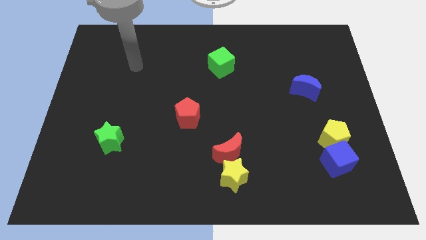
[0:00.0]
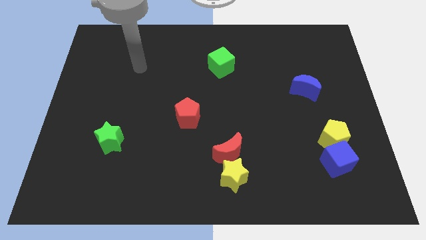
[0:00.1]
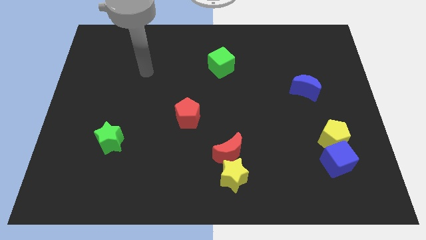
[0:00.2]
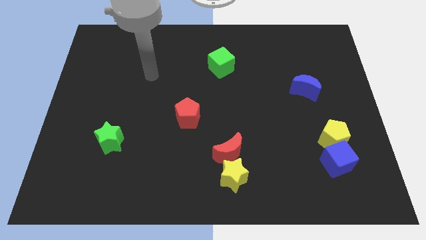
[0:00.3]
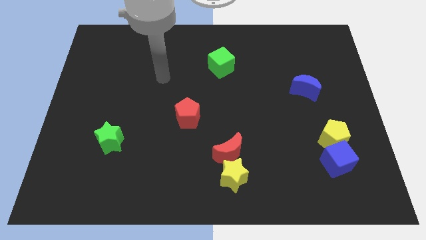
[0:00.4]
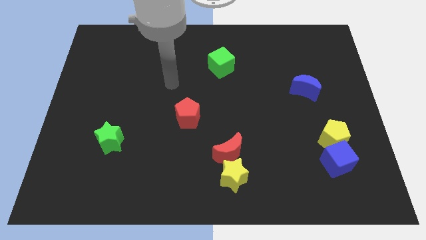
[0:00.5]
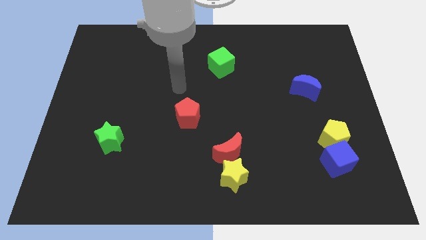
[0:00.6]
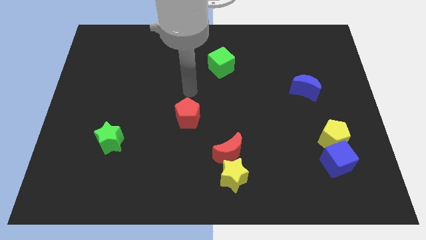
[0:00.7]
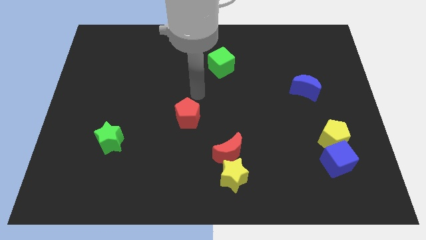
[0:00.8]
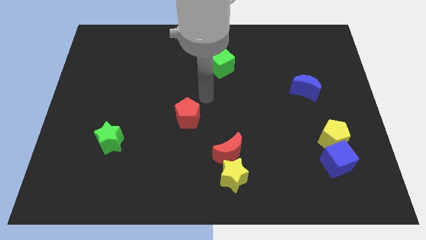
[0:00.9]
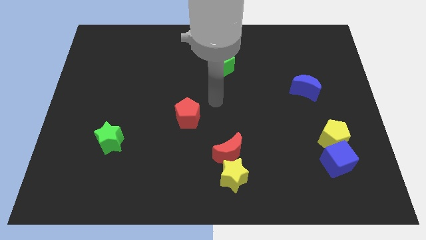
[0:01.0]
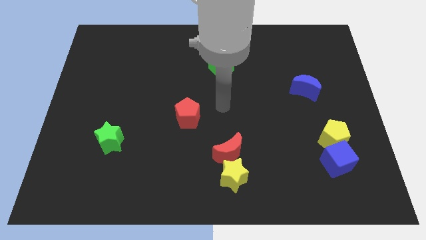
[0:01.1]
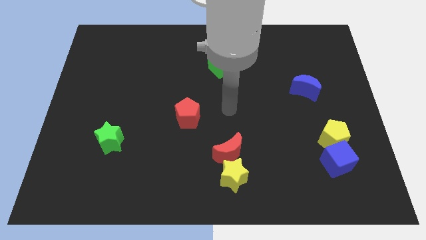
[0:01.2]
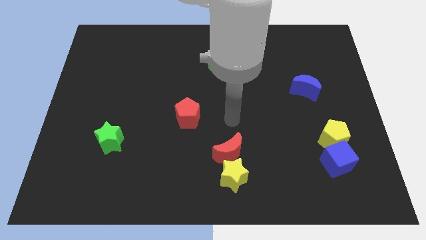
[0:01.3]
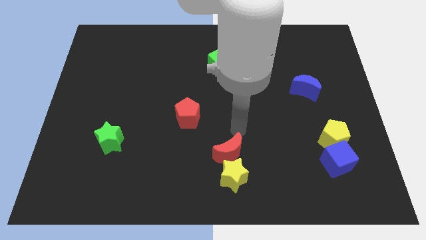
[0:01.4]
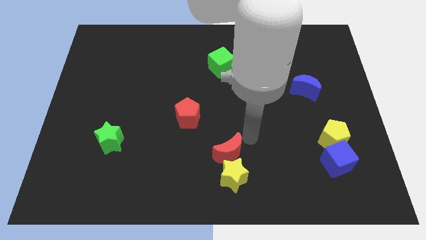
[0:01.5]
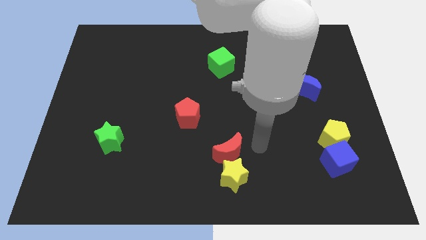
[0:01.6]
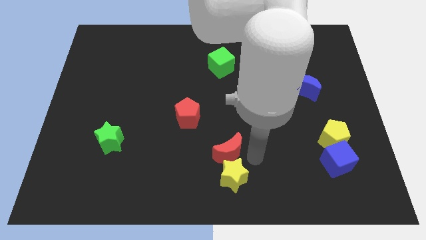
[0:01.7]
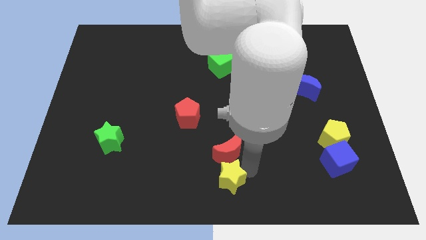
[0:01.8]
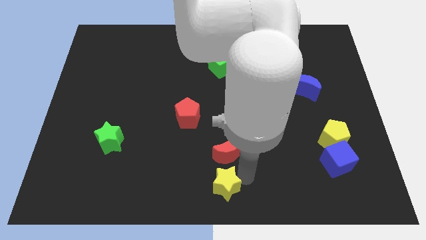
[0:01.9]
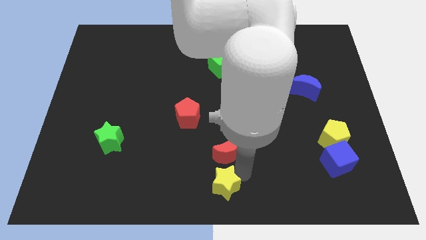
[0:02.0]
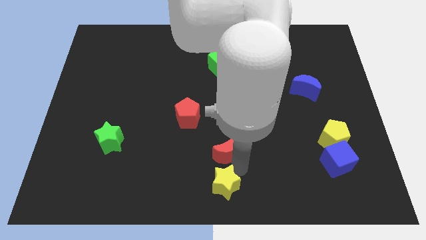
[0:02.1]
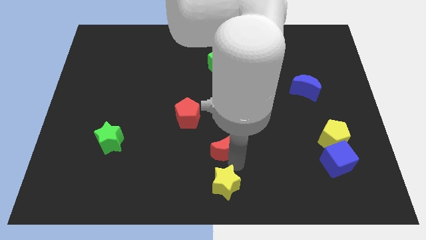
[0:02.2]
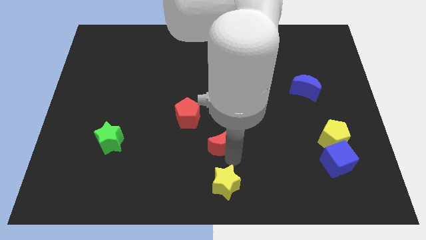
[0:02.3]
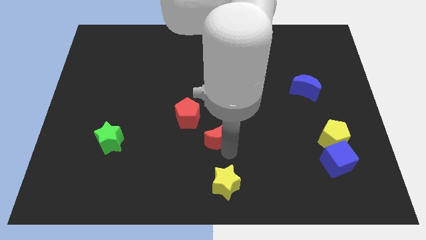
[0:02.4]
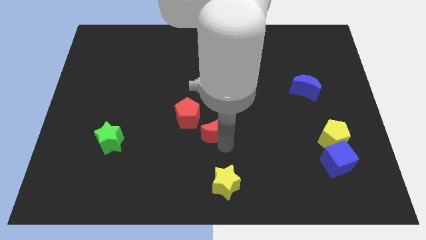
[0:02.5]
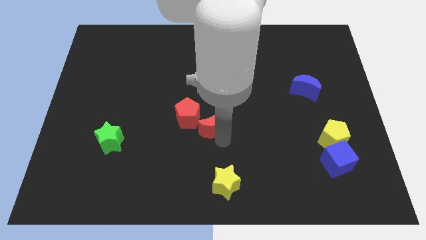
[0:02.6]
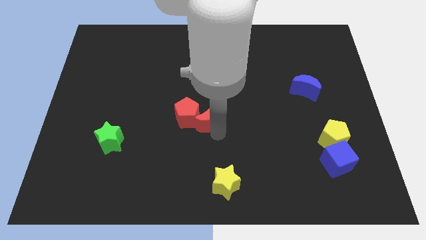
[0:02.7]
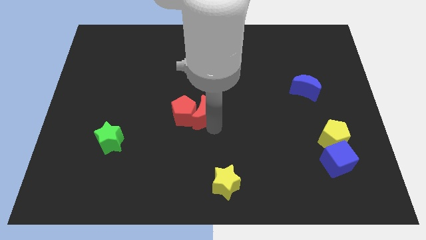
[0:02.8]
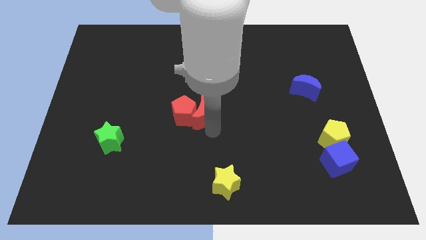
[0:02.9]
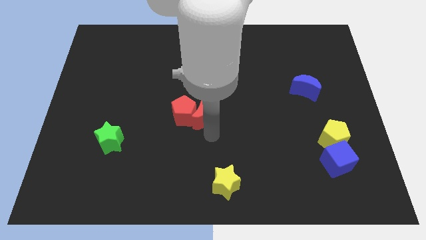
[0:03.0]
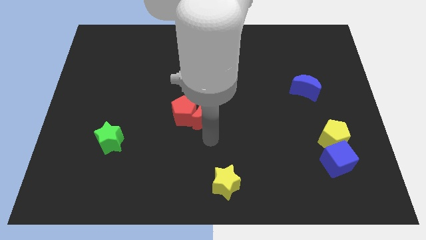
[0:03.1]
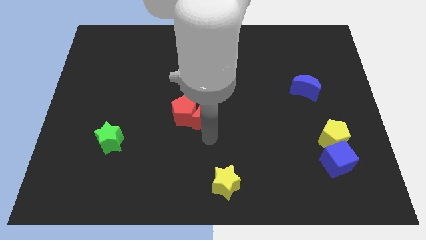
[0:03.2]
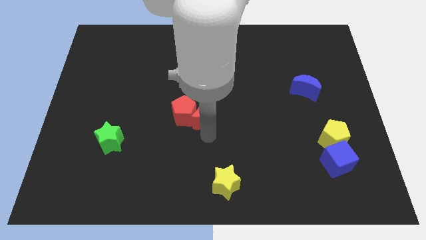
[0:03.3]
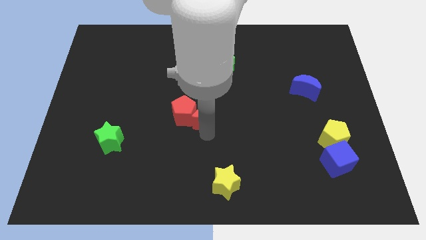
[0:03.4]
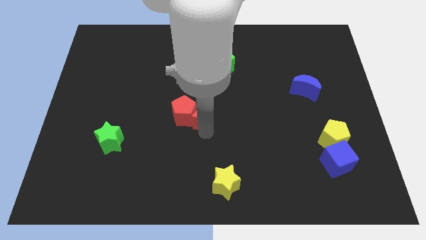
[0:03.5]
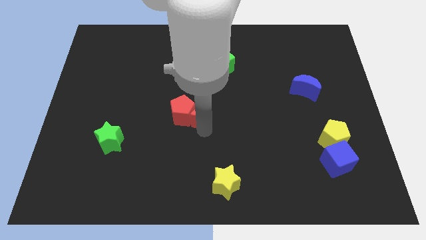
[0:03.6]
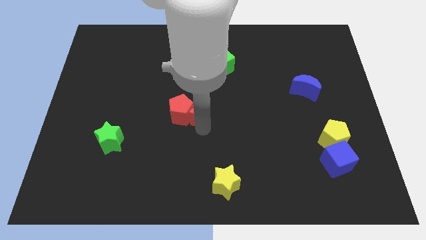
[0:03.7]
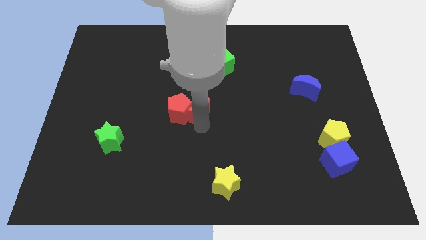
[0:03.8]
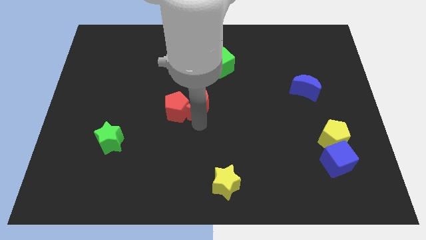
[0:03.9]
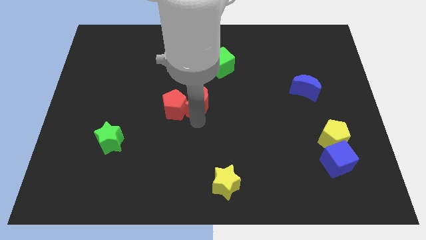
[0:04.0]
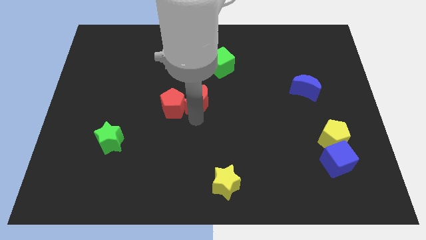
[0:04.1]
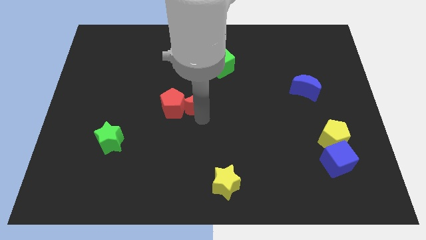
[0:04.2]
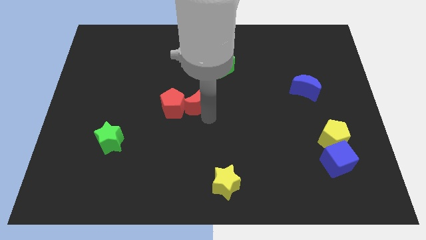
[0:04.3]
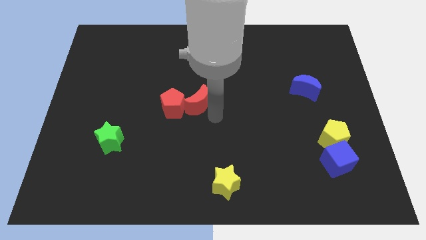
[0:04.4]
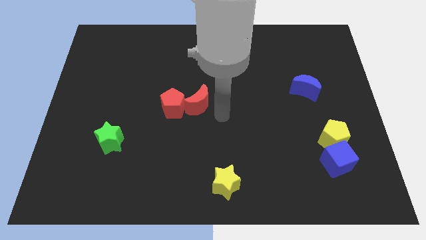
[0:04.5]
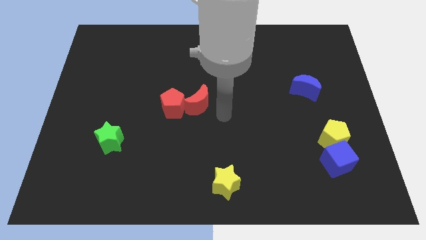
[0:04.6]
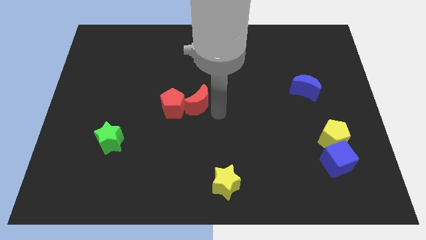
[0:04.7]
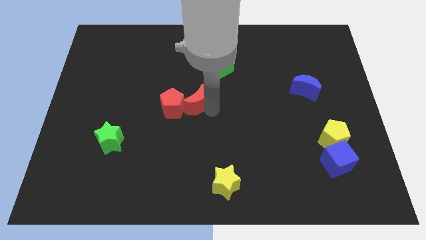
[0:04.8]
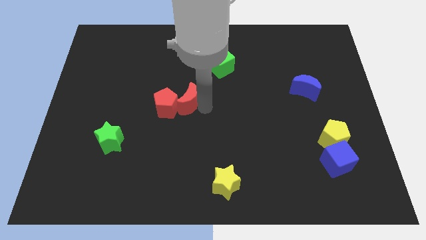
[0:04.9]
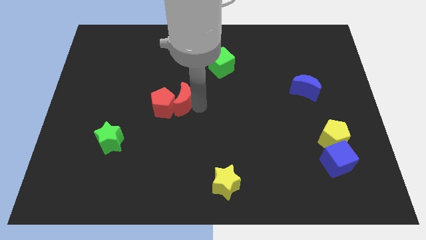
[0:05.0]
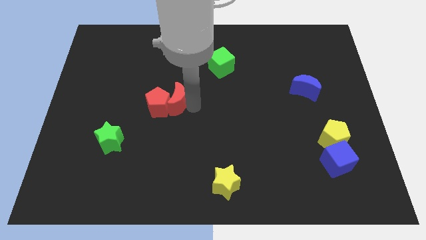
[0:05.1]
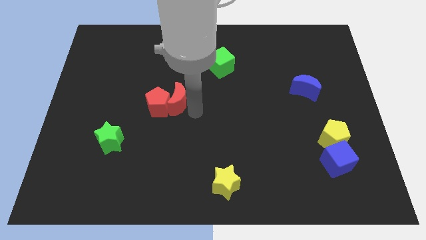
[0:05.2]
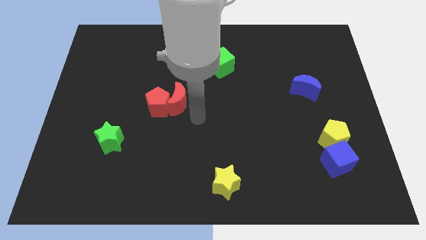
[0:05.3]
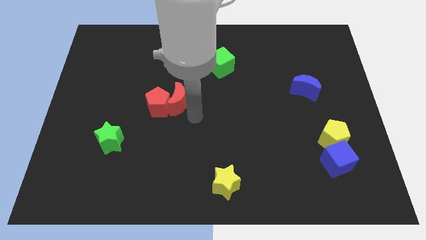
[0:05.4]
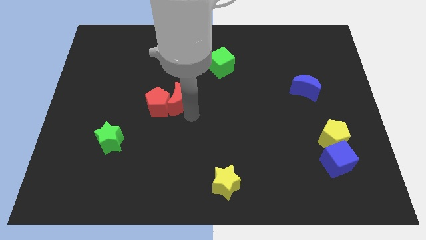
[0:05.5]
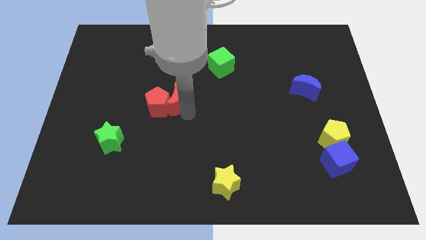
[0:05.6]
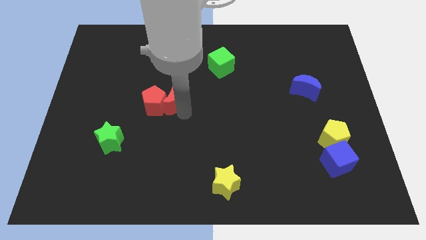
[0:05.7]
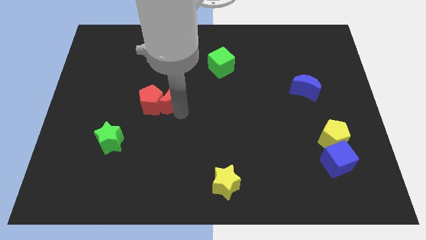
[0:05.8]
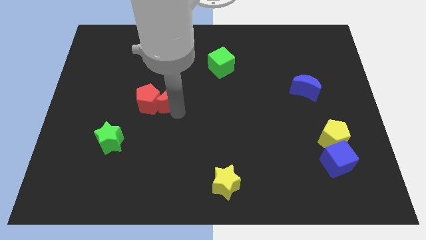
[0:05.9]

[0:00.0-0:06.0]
move the red moon upwards and left

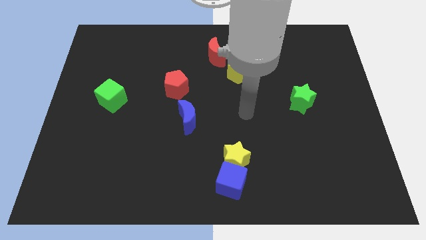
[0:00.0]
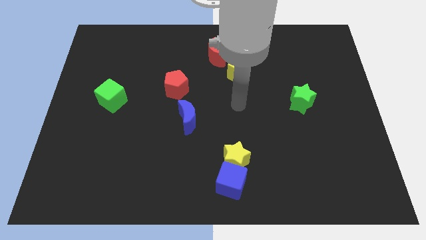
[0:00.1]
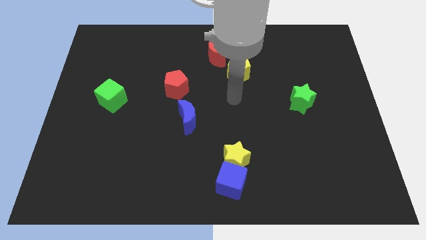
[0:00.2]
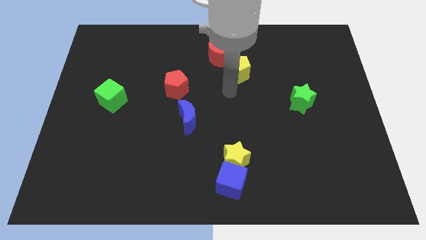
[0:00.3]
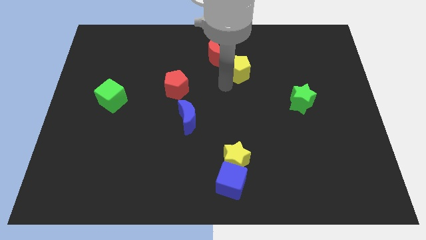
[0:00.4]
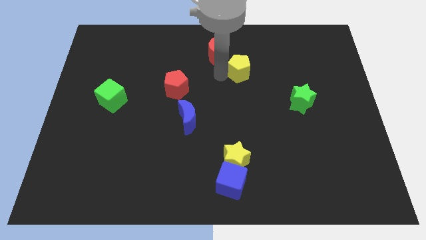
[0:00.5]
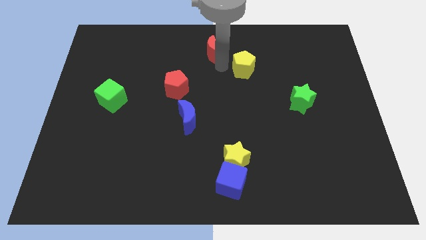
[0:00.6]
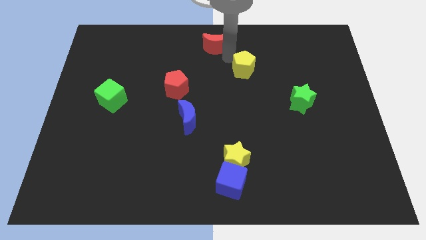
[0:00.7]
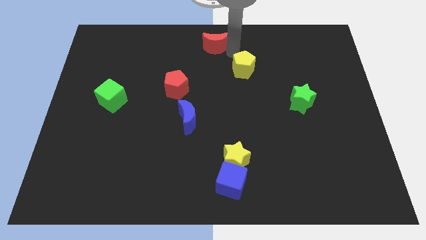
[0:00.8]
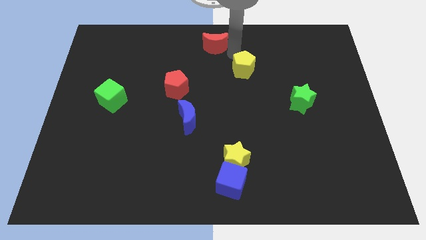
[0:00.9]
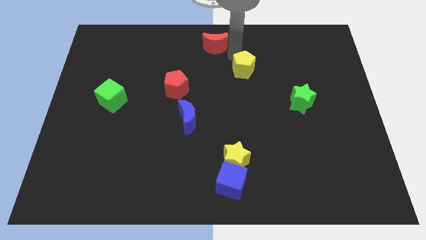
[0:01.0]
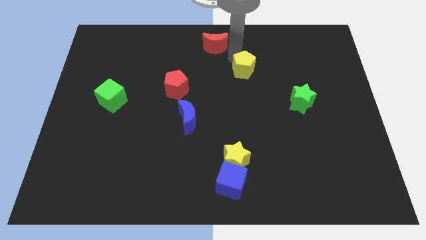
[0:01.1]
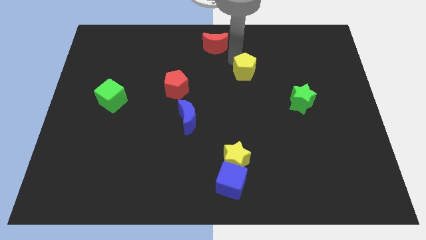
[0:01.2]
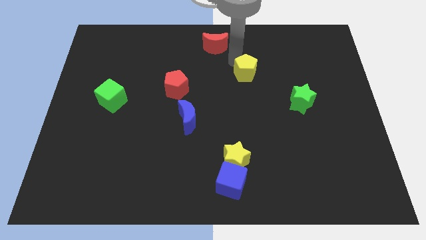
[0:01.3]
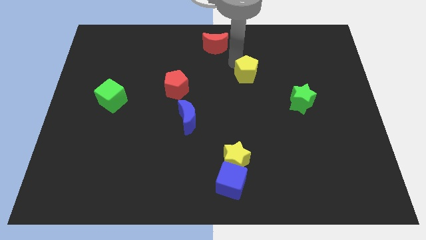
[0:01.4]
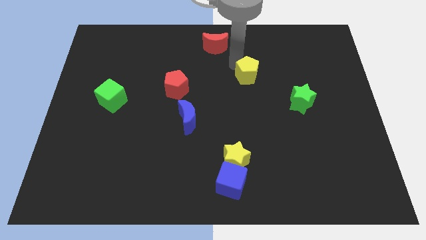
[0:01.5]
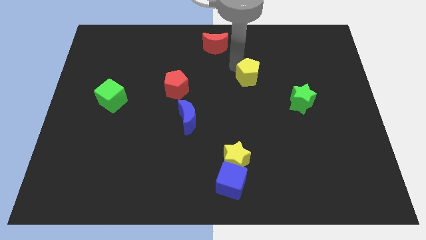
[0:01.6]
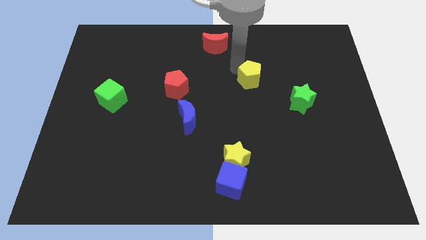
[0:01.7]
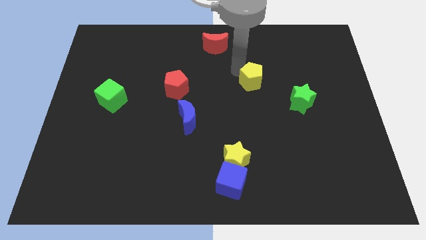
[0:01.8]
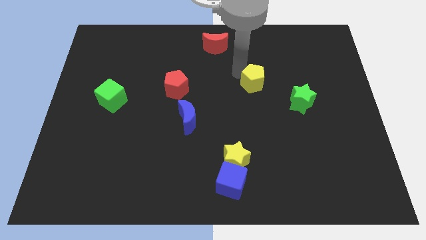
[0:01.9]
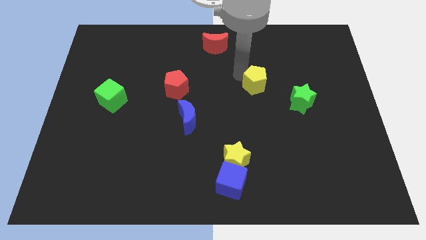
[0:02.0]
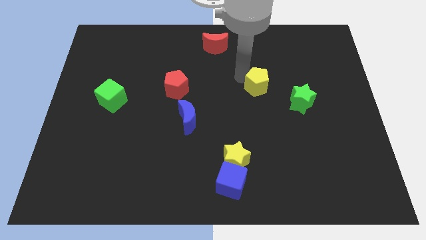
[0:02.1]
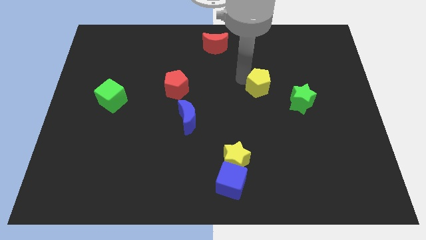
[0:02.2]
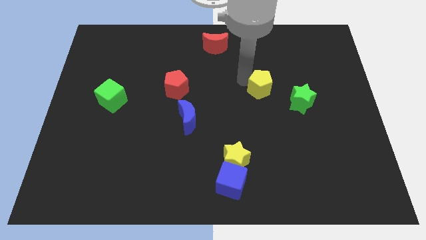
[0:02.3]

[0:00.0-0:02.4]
slightly move the yellow pentagon downwards and to the right diagonally
